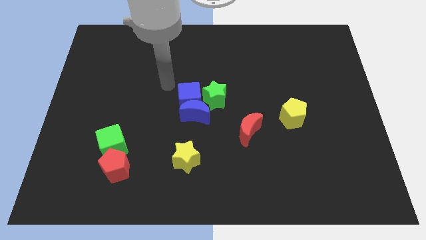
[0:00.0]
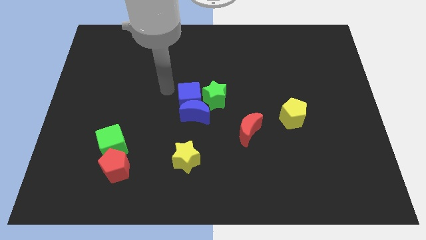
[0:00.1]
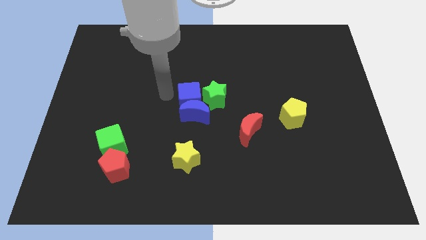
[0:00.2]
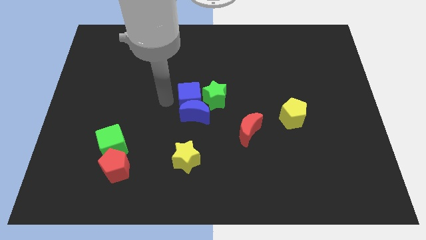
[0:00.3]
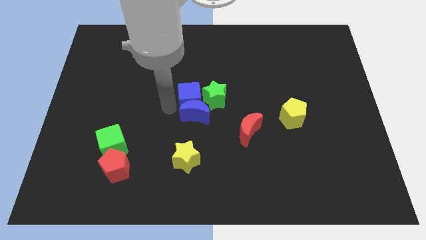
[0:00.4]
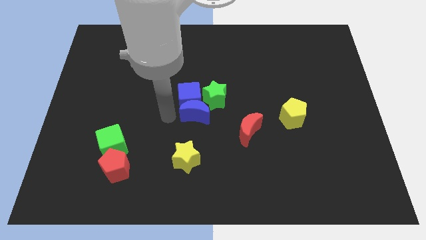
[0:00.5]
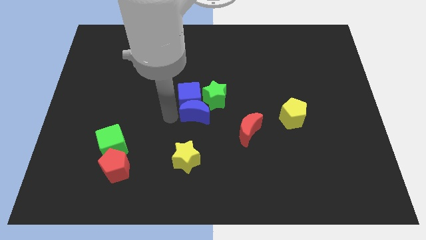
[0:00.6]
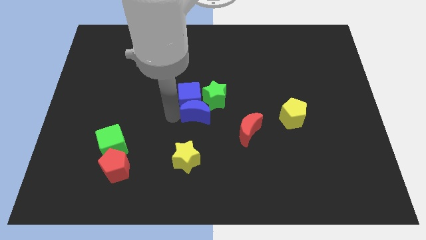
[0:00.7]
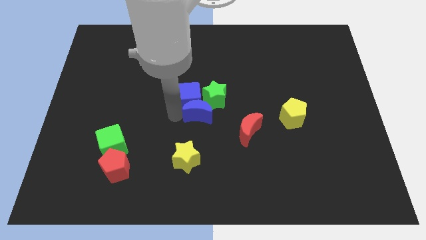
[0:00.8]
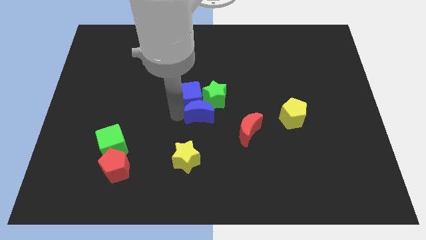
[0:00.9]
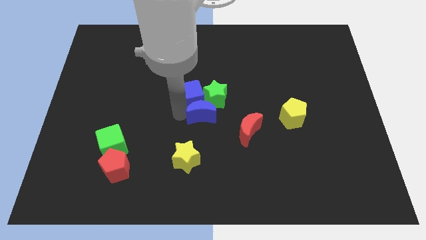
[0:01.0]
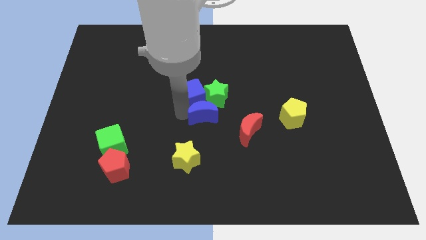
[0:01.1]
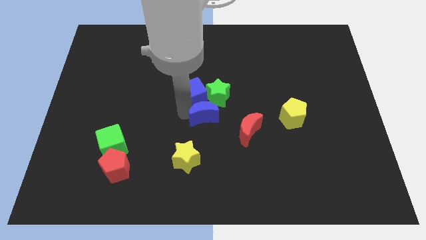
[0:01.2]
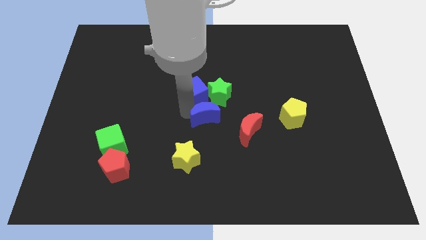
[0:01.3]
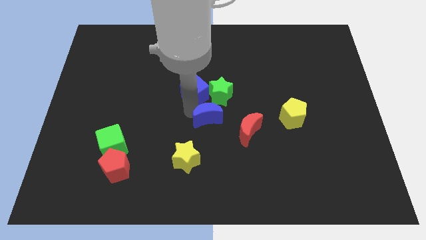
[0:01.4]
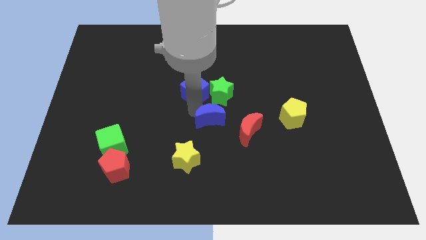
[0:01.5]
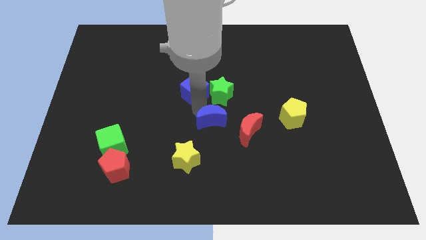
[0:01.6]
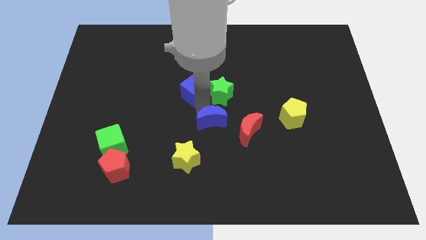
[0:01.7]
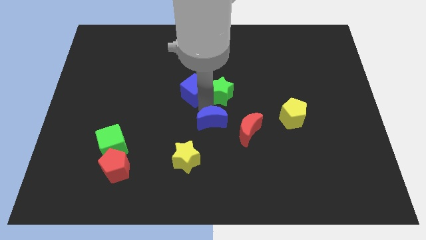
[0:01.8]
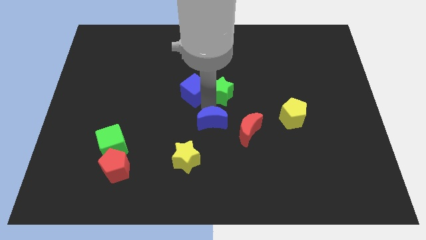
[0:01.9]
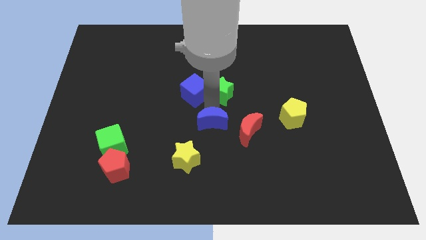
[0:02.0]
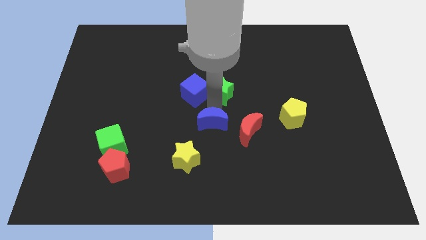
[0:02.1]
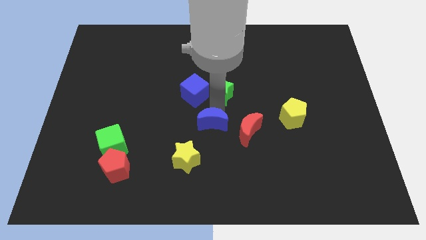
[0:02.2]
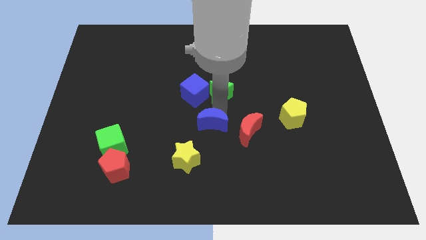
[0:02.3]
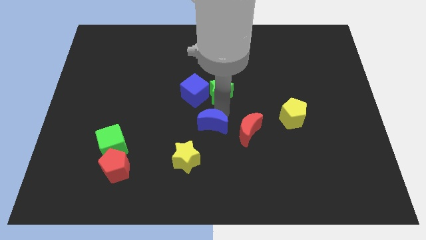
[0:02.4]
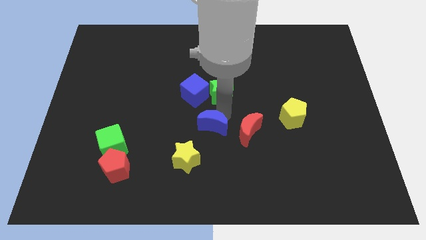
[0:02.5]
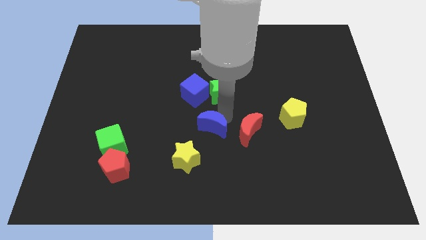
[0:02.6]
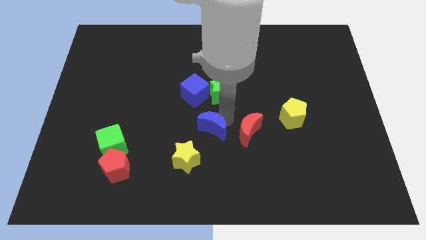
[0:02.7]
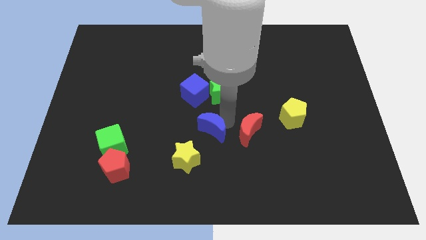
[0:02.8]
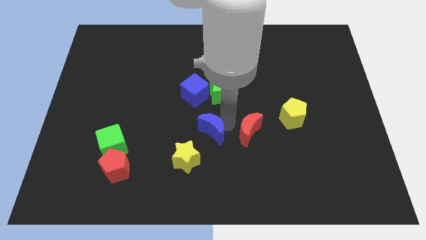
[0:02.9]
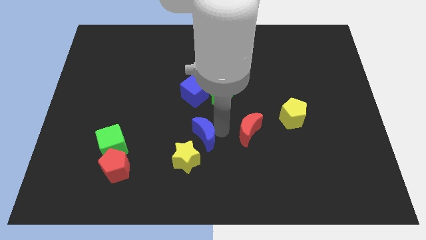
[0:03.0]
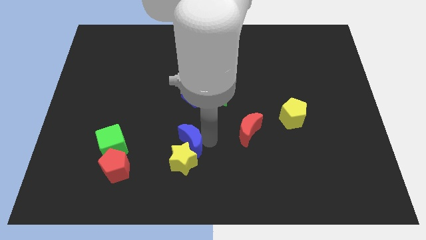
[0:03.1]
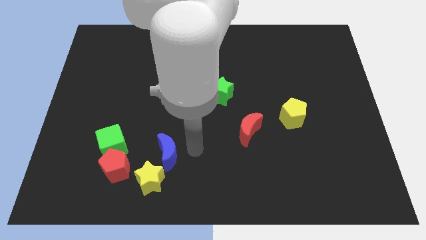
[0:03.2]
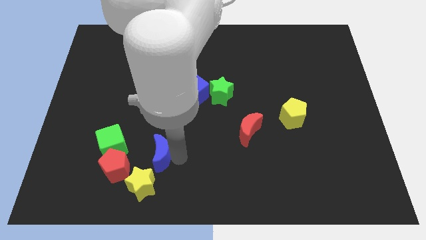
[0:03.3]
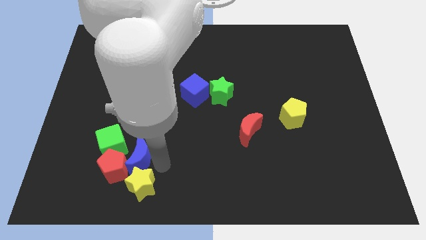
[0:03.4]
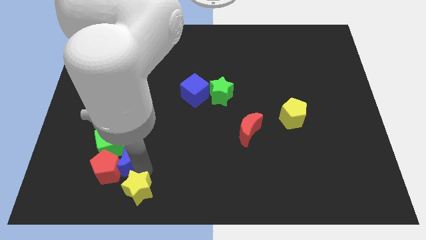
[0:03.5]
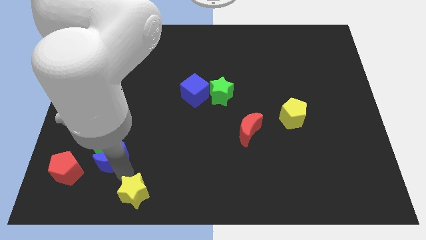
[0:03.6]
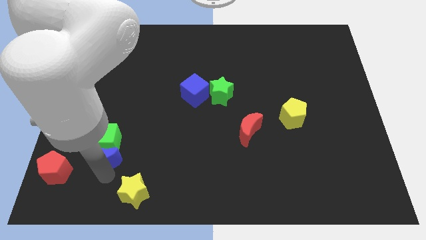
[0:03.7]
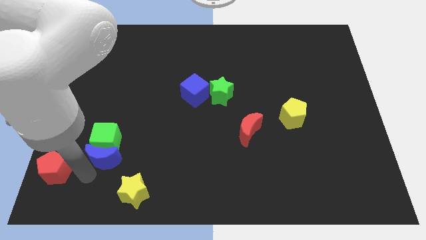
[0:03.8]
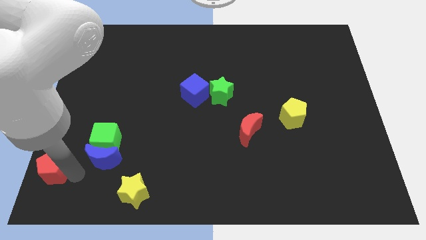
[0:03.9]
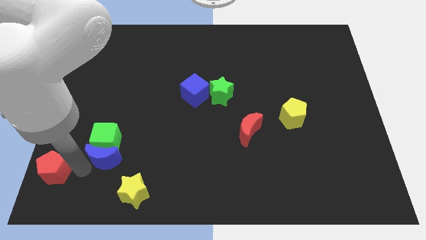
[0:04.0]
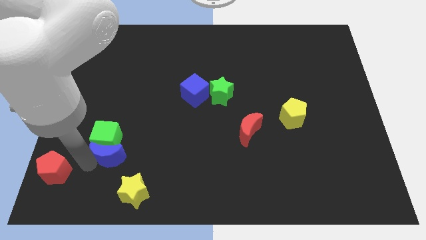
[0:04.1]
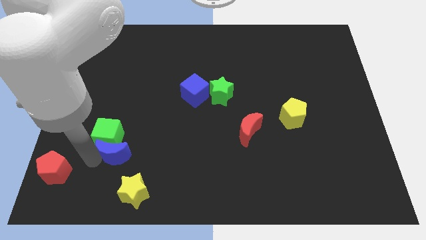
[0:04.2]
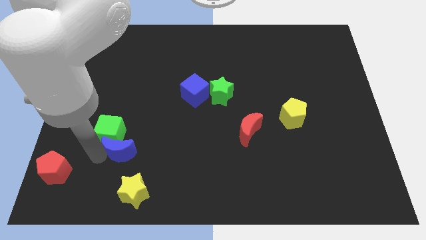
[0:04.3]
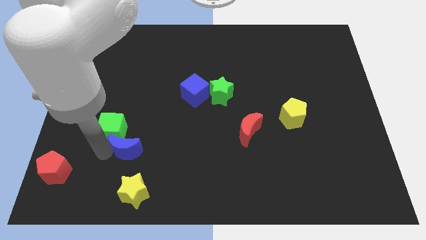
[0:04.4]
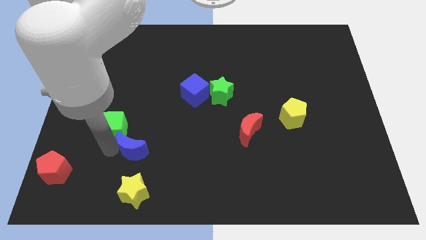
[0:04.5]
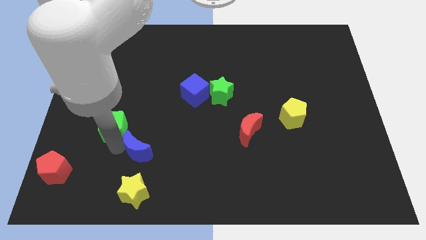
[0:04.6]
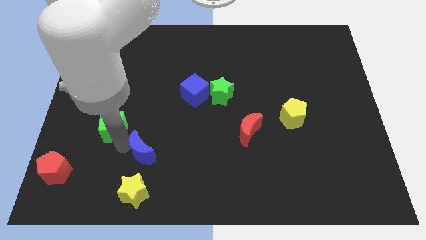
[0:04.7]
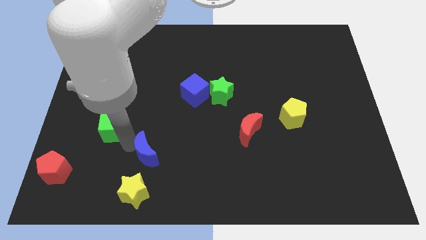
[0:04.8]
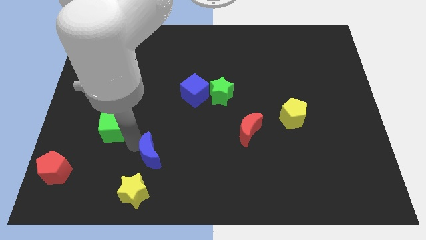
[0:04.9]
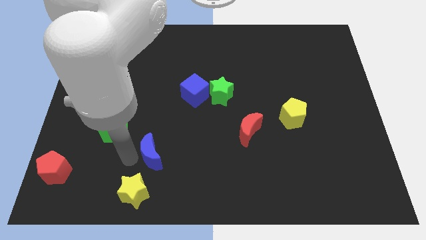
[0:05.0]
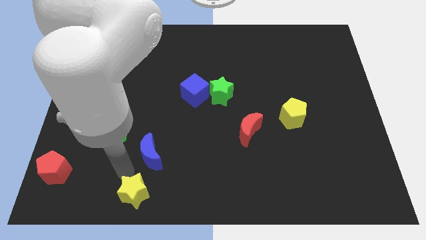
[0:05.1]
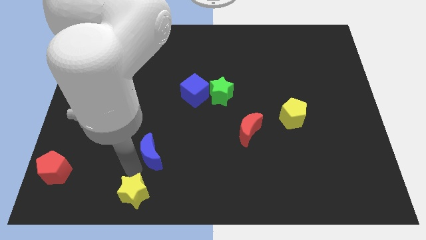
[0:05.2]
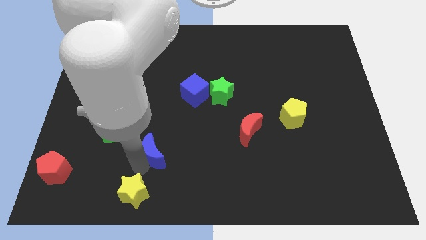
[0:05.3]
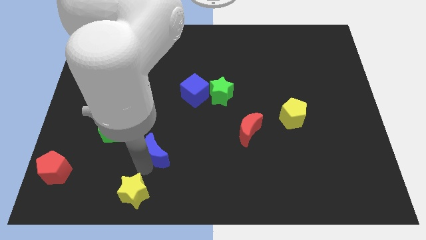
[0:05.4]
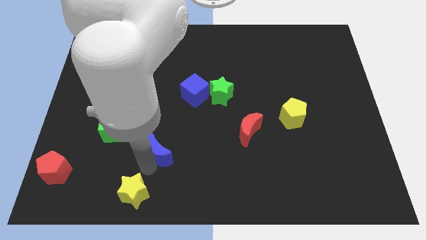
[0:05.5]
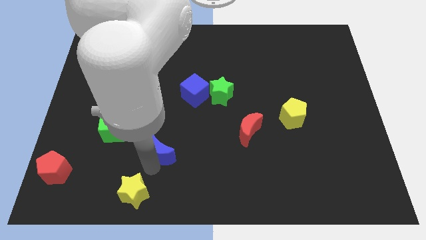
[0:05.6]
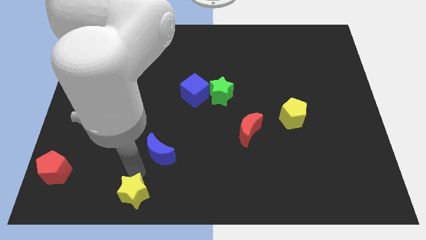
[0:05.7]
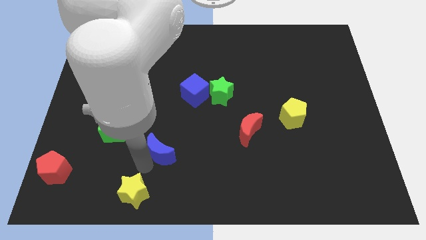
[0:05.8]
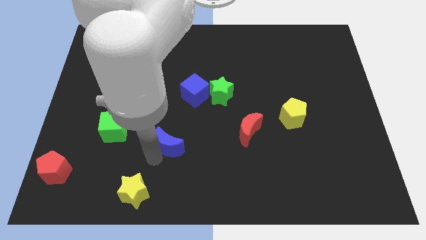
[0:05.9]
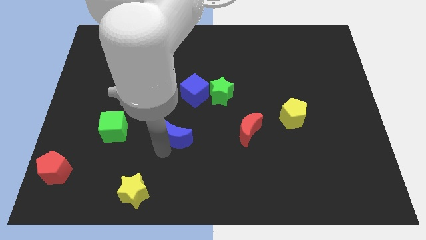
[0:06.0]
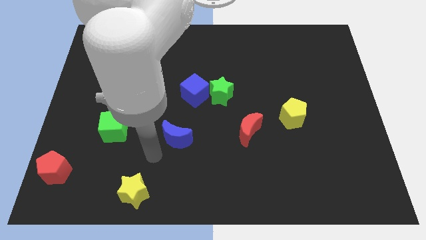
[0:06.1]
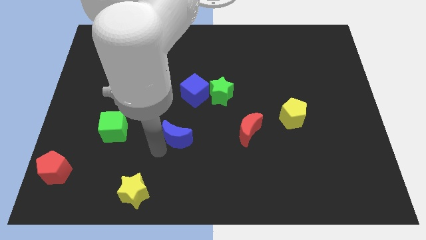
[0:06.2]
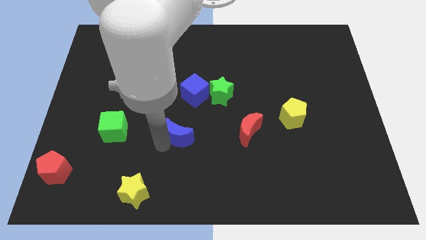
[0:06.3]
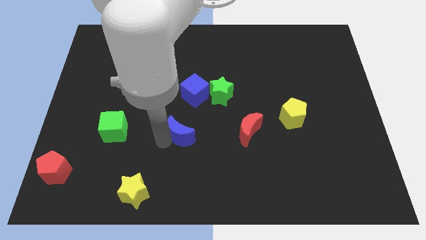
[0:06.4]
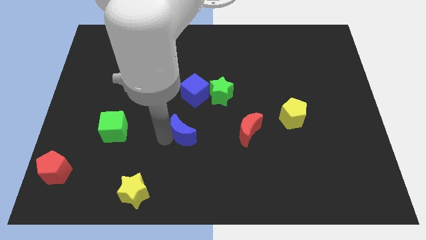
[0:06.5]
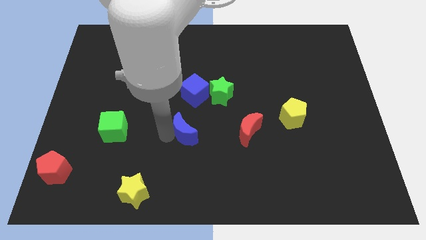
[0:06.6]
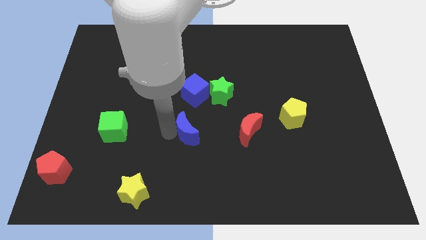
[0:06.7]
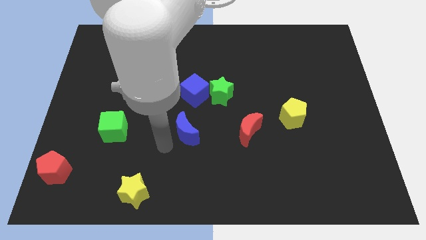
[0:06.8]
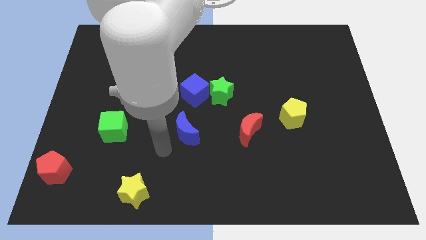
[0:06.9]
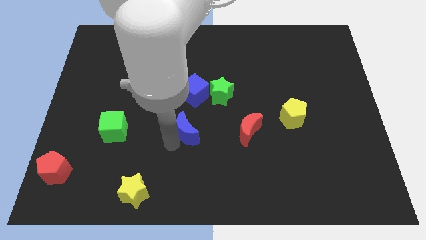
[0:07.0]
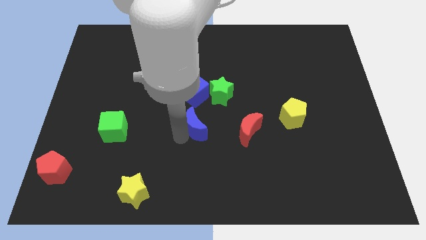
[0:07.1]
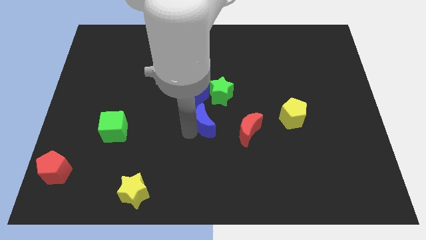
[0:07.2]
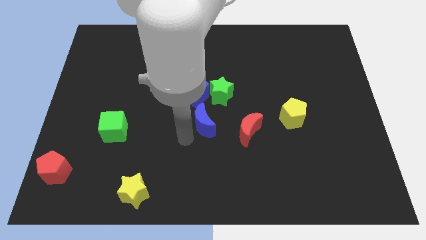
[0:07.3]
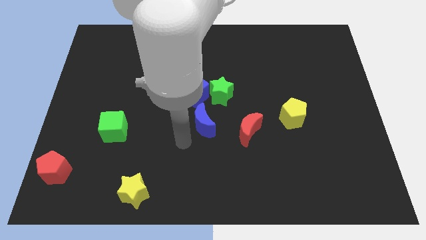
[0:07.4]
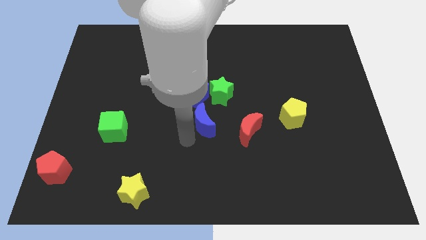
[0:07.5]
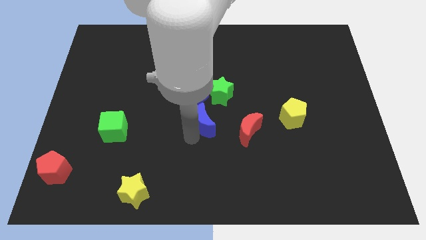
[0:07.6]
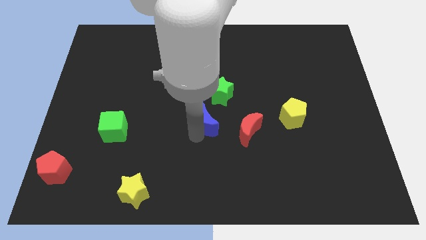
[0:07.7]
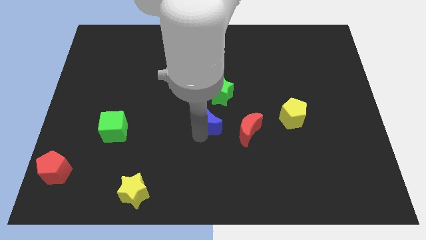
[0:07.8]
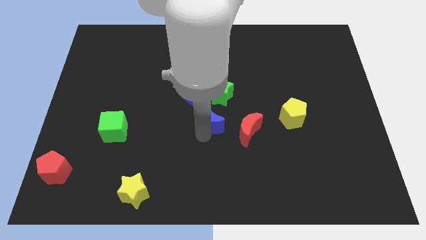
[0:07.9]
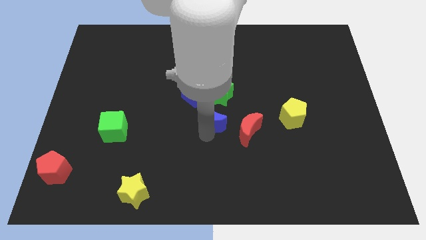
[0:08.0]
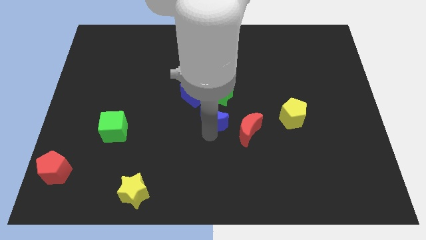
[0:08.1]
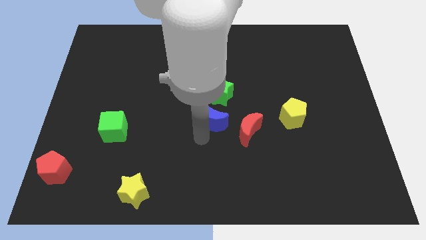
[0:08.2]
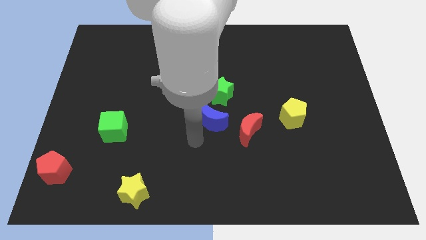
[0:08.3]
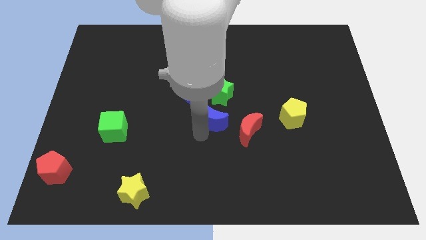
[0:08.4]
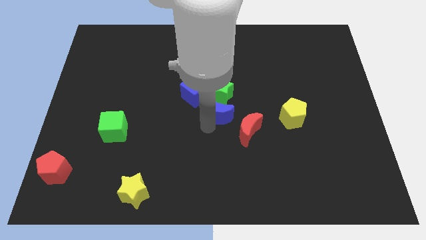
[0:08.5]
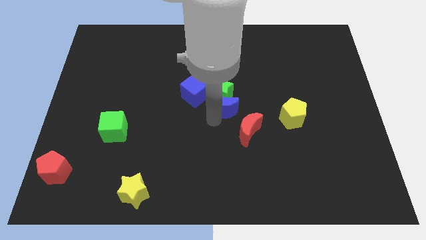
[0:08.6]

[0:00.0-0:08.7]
slide the blue moon just right of the blue cube
